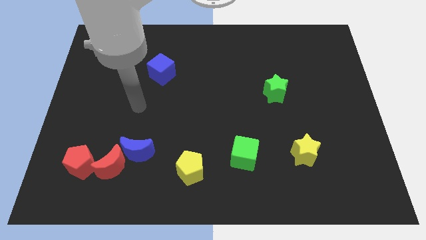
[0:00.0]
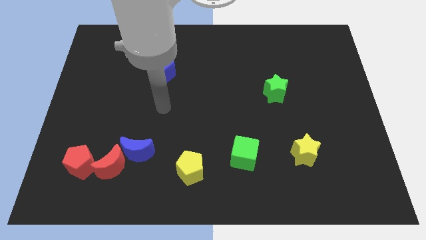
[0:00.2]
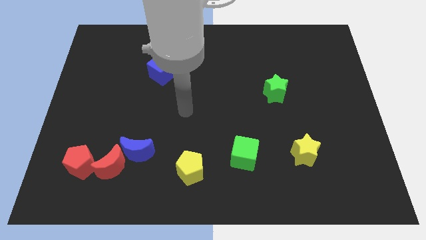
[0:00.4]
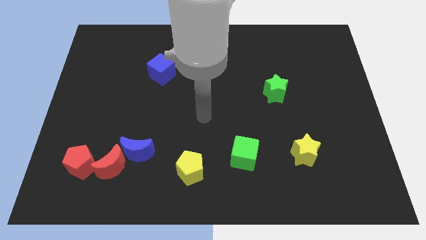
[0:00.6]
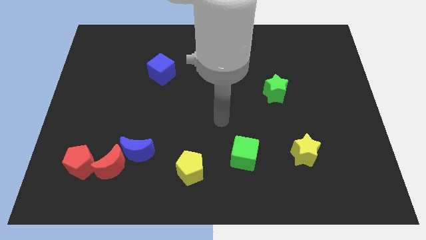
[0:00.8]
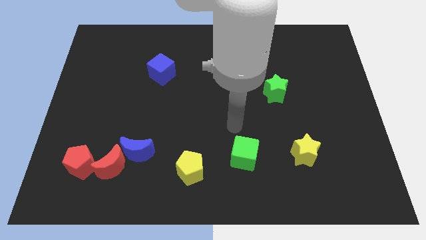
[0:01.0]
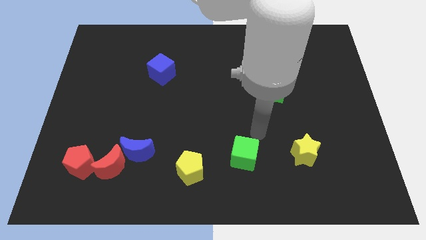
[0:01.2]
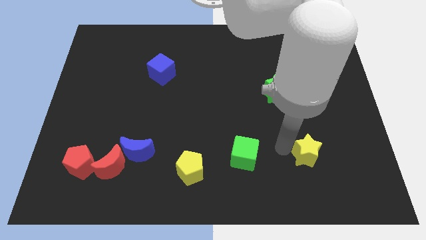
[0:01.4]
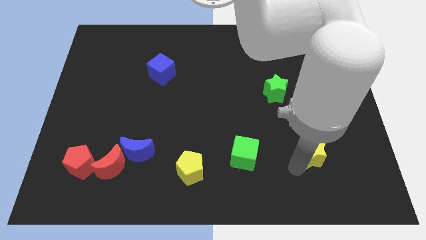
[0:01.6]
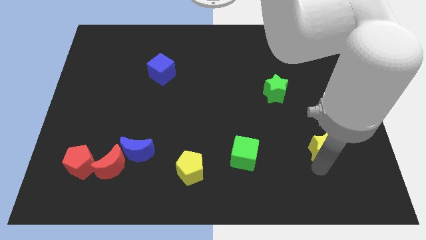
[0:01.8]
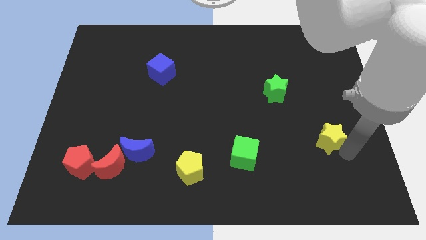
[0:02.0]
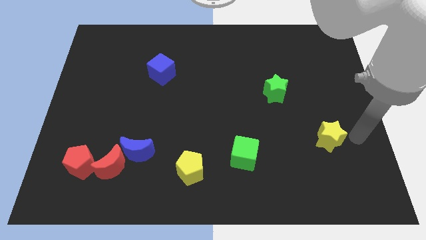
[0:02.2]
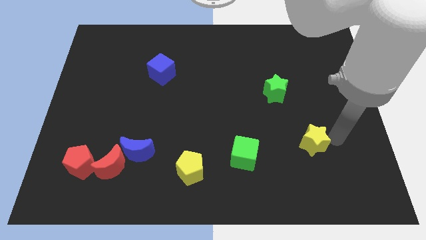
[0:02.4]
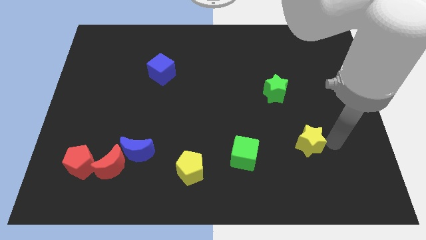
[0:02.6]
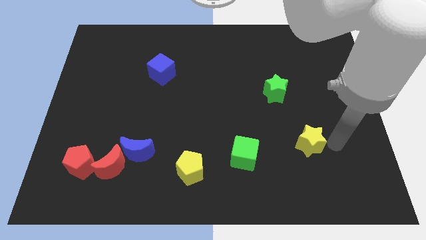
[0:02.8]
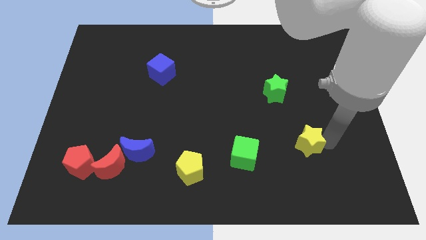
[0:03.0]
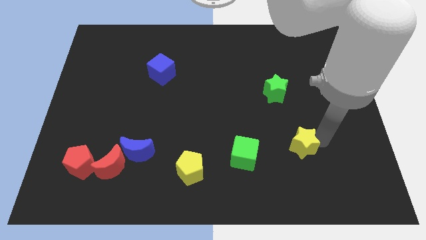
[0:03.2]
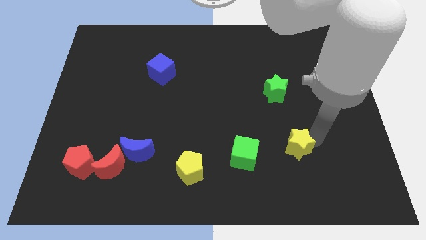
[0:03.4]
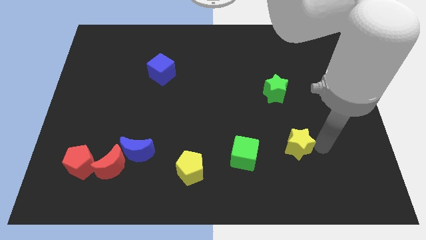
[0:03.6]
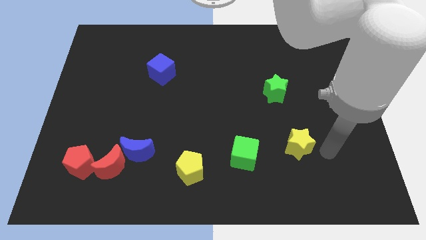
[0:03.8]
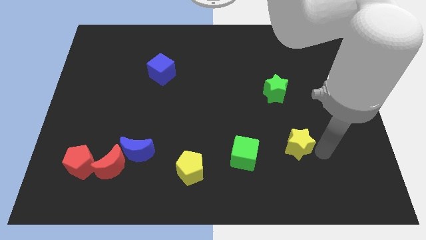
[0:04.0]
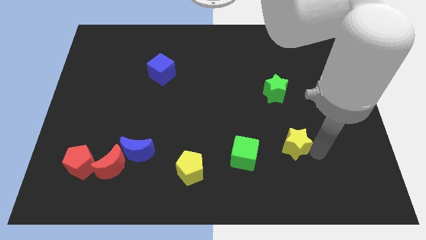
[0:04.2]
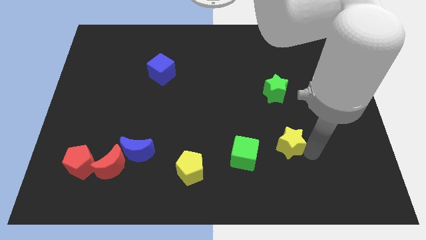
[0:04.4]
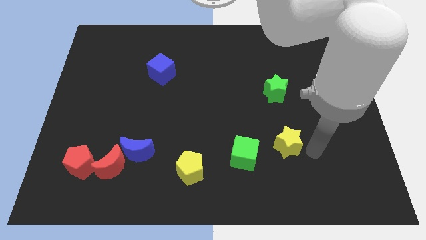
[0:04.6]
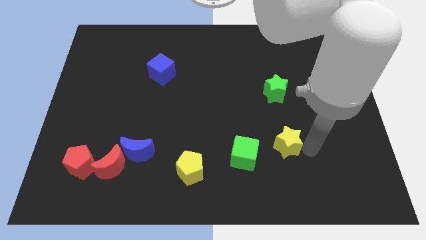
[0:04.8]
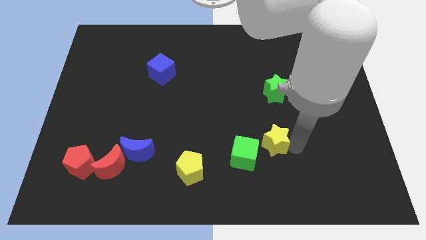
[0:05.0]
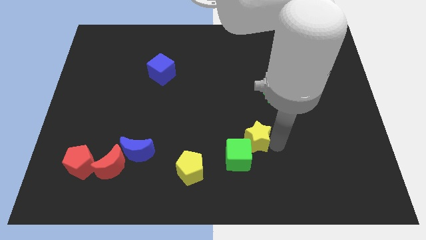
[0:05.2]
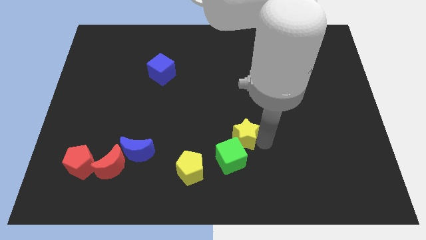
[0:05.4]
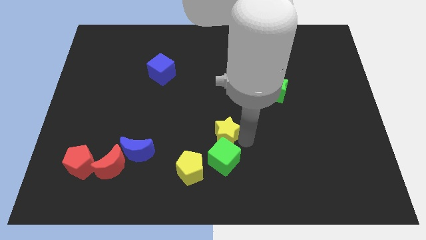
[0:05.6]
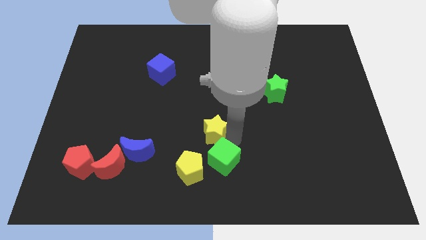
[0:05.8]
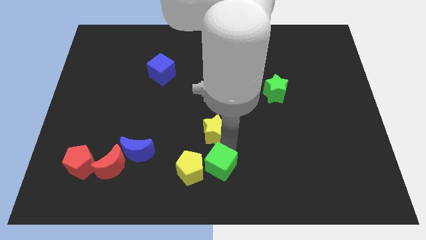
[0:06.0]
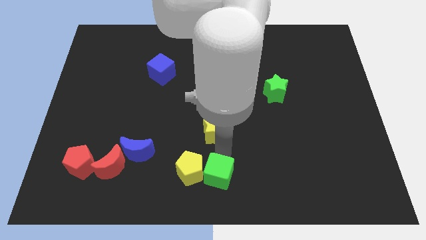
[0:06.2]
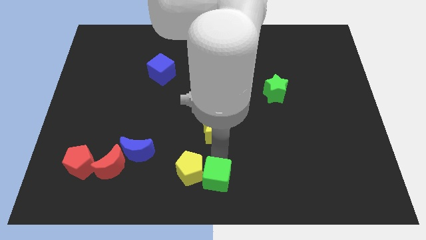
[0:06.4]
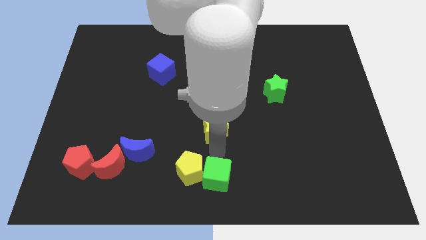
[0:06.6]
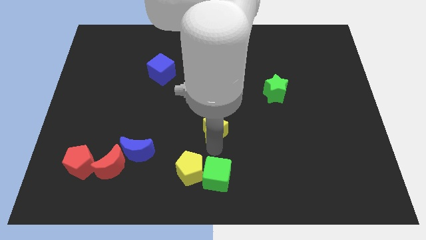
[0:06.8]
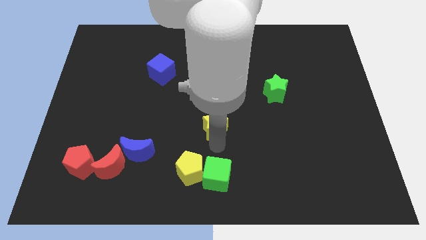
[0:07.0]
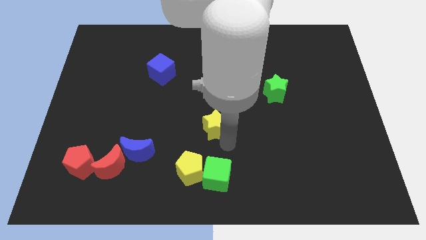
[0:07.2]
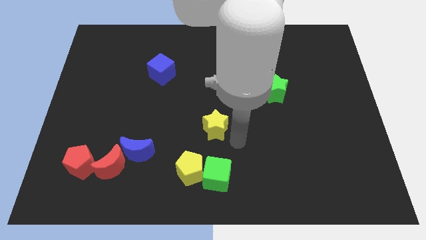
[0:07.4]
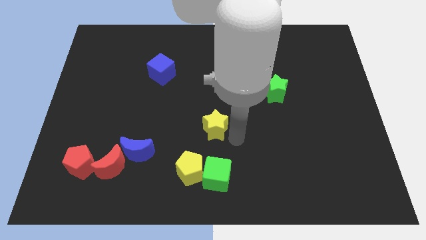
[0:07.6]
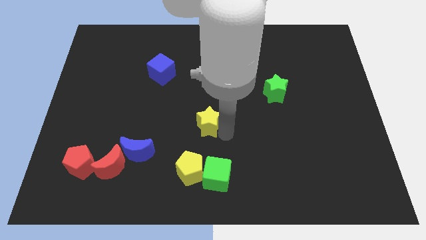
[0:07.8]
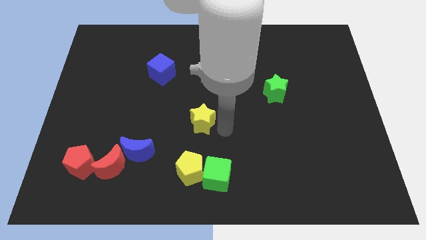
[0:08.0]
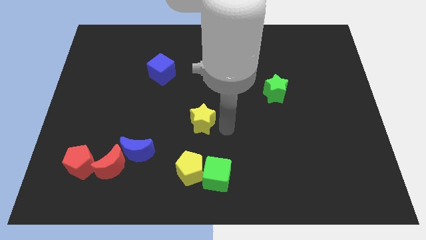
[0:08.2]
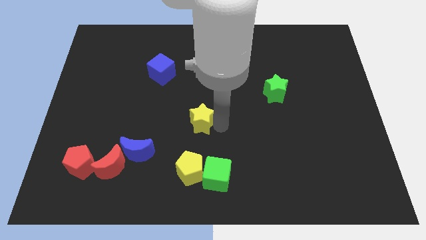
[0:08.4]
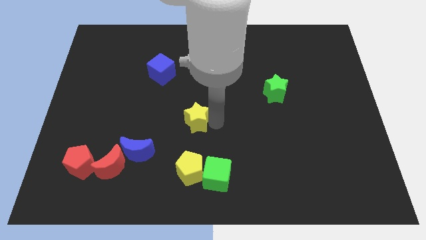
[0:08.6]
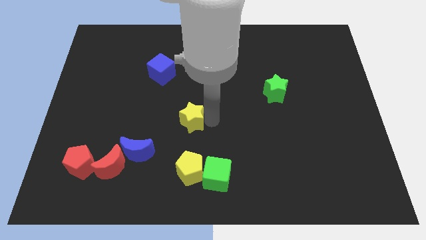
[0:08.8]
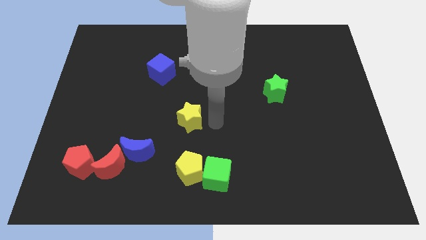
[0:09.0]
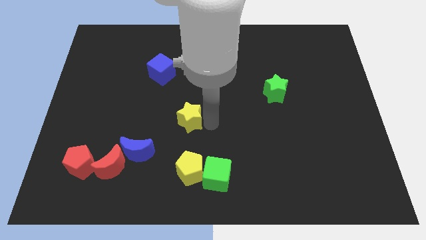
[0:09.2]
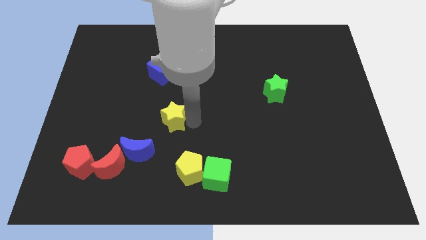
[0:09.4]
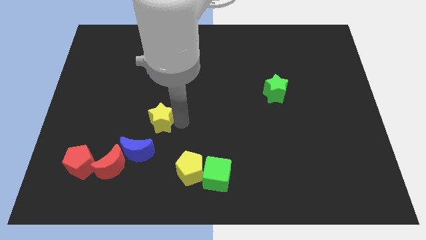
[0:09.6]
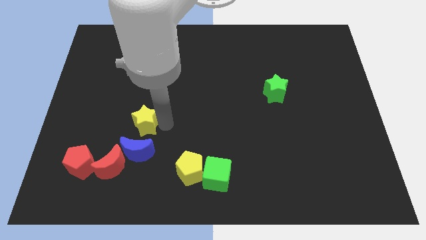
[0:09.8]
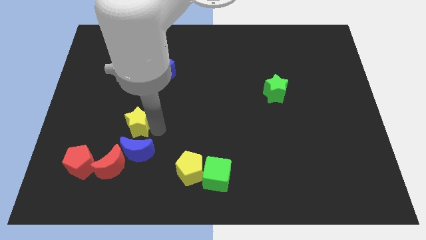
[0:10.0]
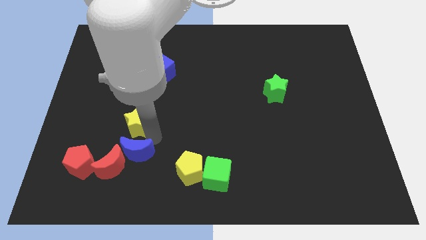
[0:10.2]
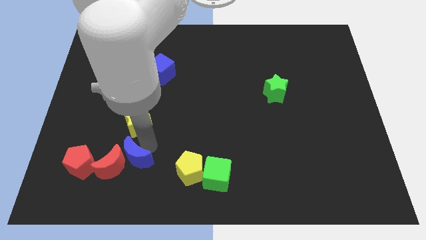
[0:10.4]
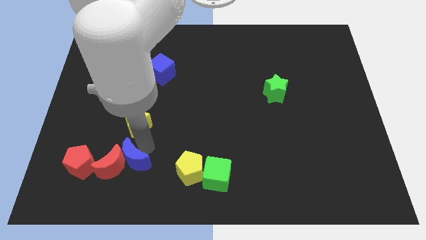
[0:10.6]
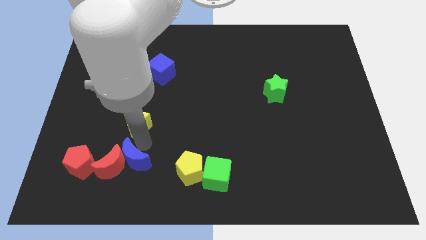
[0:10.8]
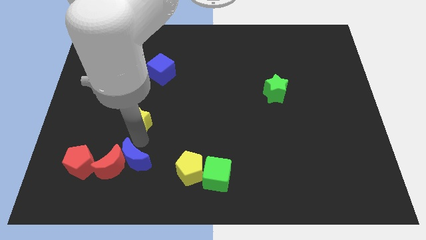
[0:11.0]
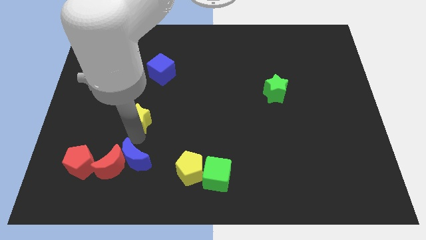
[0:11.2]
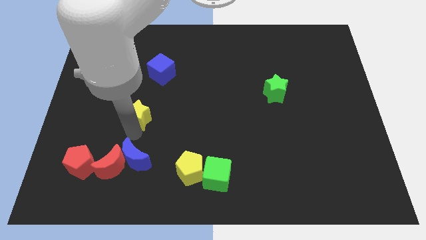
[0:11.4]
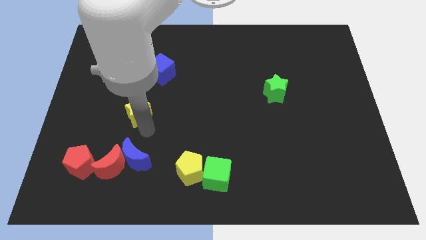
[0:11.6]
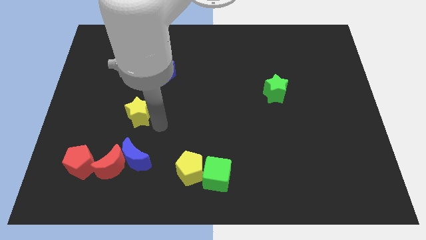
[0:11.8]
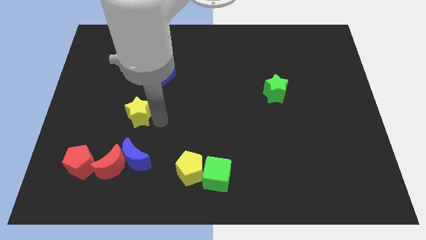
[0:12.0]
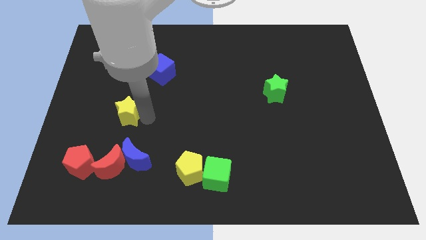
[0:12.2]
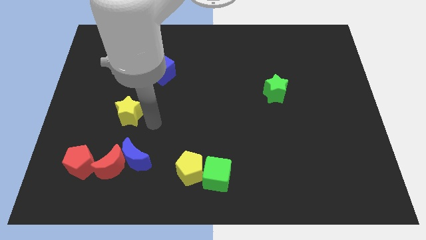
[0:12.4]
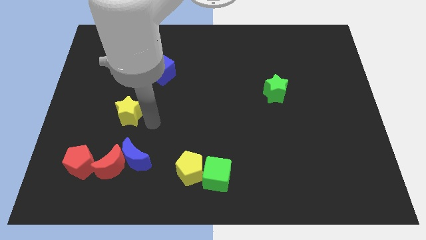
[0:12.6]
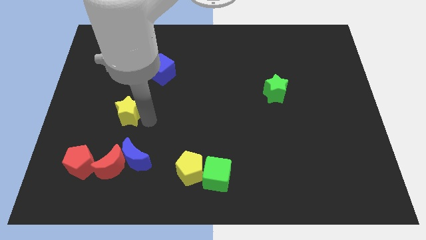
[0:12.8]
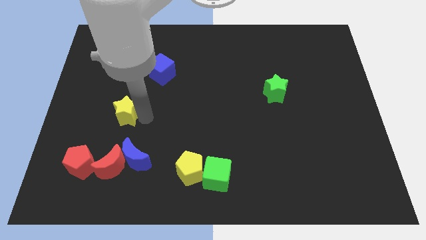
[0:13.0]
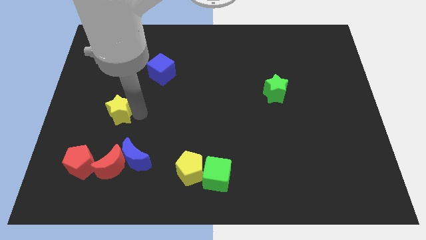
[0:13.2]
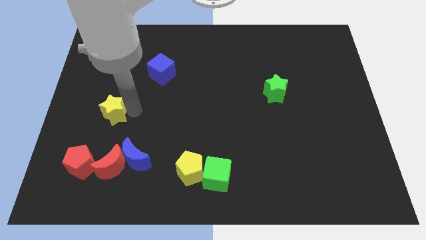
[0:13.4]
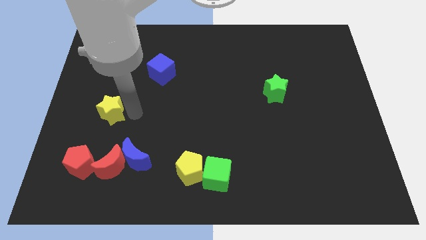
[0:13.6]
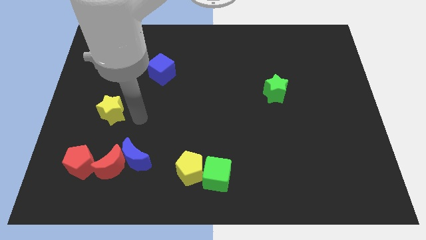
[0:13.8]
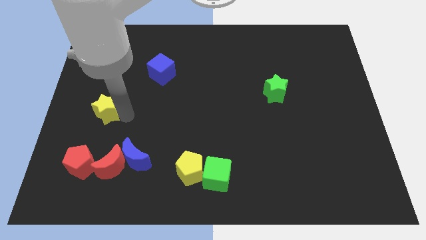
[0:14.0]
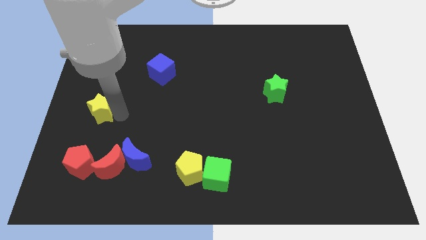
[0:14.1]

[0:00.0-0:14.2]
move the yellow star to the left side

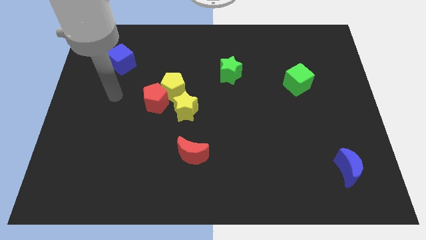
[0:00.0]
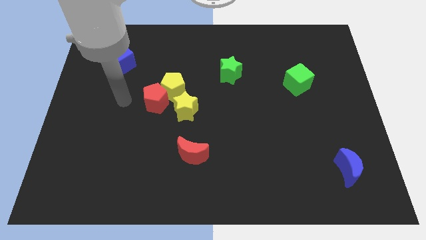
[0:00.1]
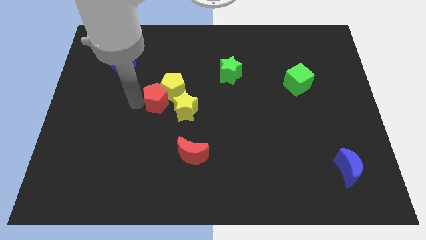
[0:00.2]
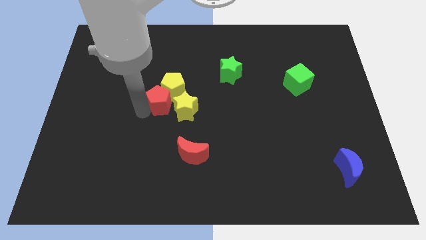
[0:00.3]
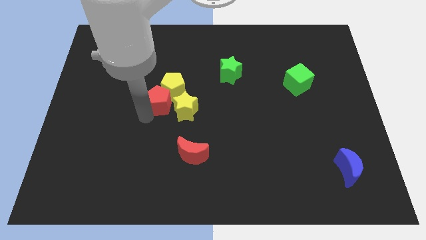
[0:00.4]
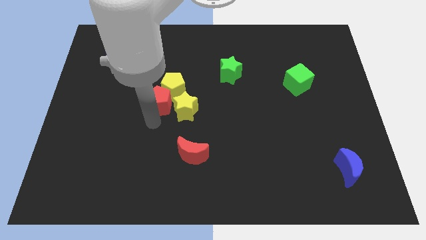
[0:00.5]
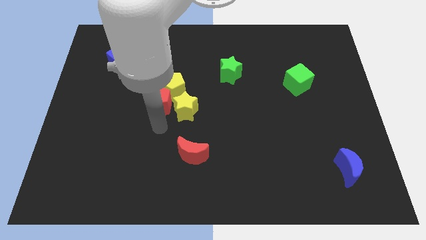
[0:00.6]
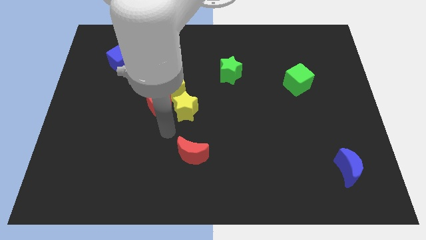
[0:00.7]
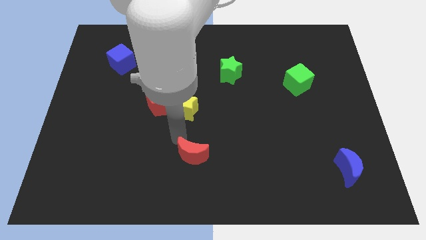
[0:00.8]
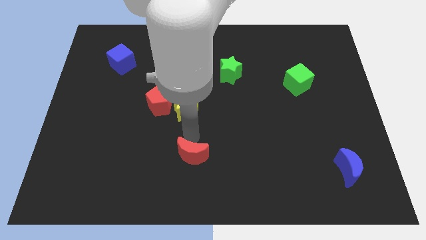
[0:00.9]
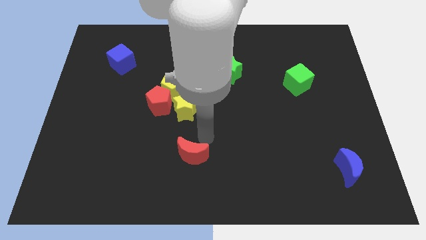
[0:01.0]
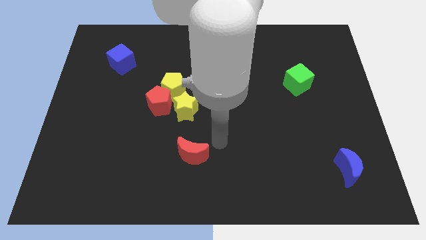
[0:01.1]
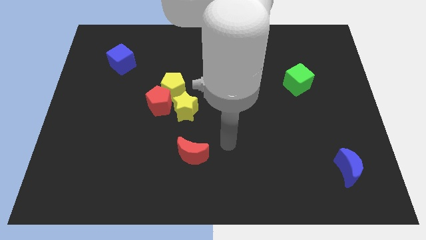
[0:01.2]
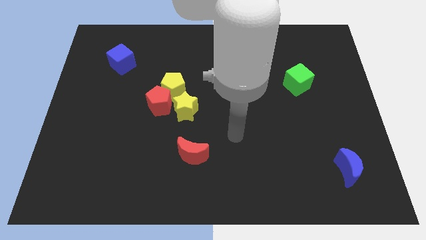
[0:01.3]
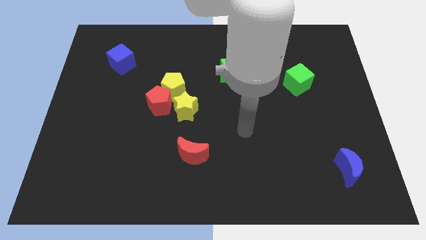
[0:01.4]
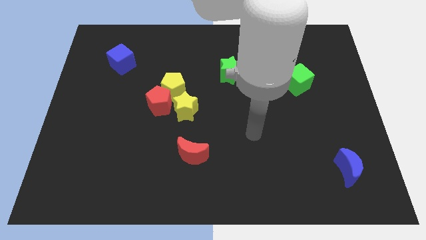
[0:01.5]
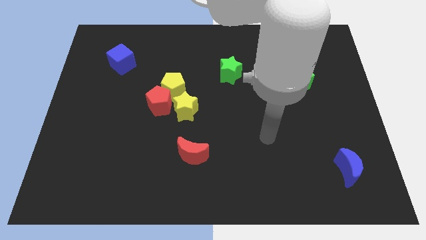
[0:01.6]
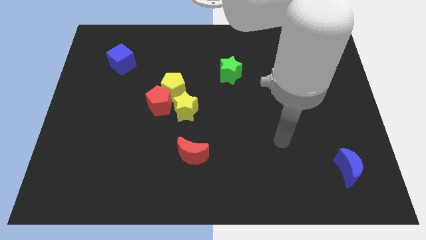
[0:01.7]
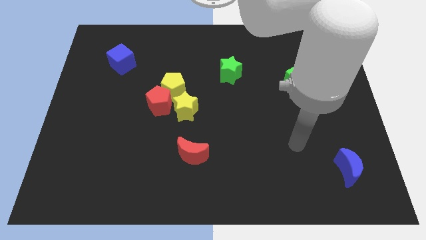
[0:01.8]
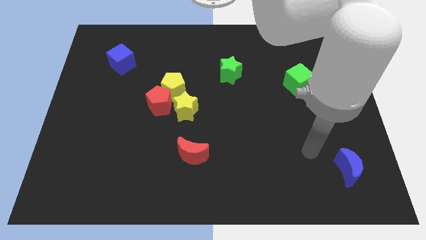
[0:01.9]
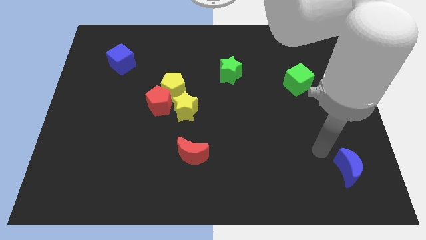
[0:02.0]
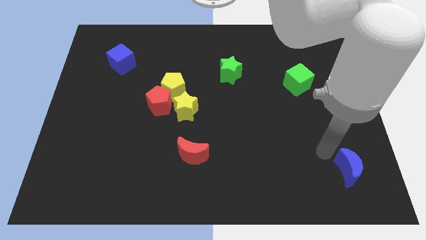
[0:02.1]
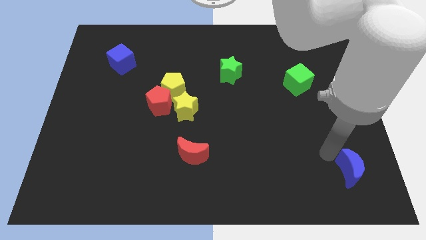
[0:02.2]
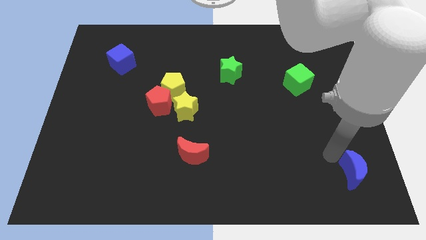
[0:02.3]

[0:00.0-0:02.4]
put the blue moon to the bottom right of the board
